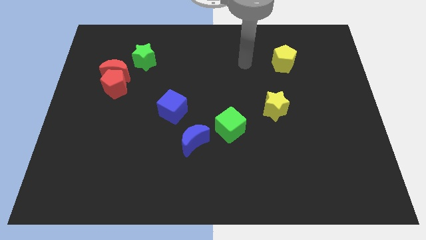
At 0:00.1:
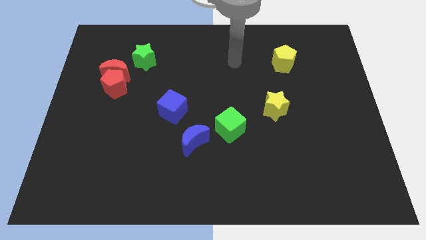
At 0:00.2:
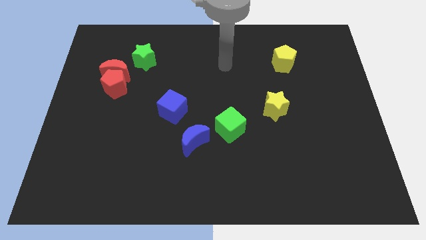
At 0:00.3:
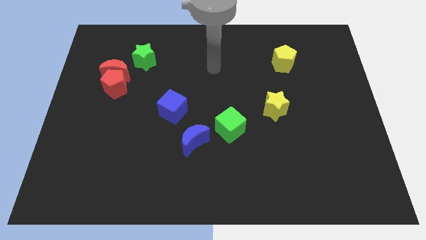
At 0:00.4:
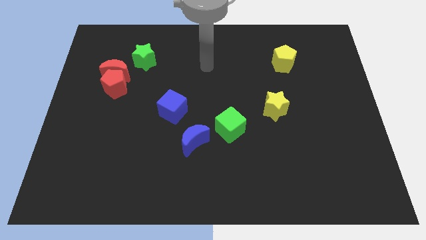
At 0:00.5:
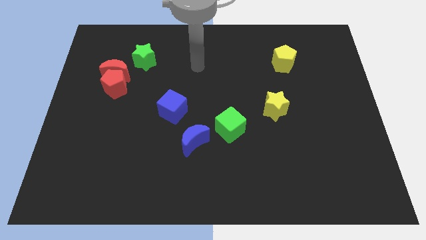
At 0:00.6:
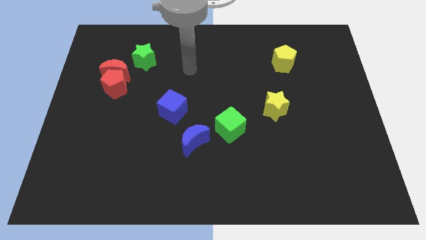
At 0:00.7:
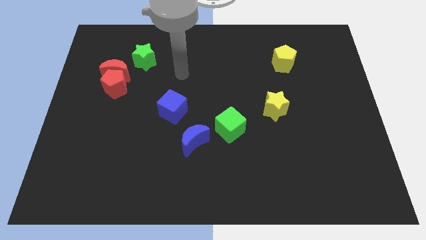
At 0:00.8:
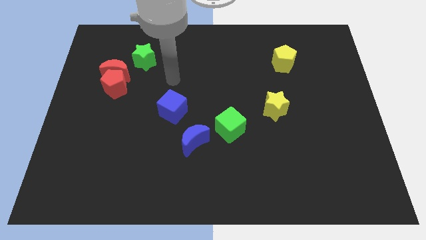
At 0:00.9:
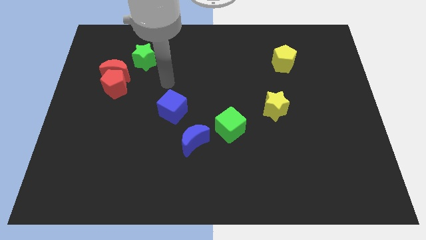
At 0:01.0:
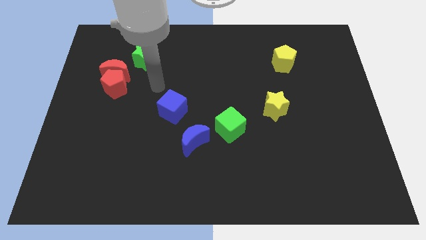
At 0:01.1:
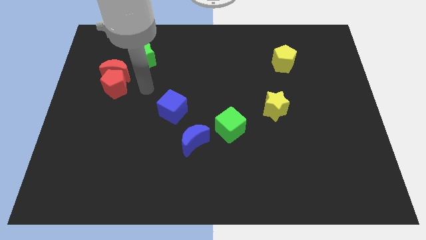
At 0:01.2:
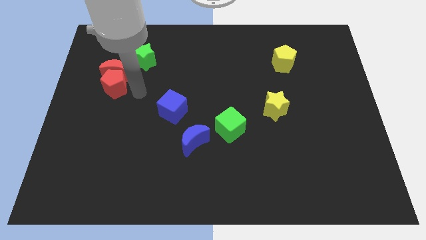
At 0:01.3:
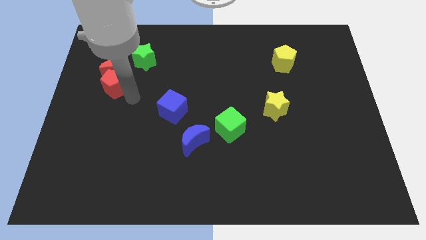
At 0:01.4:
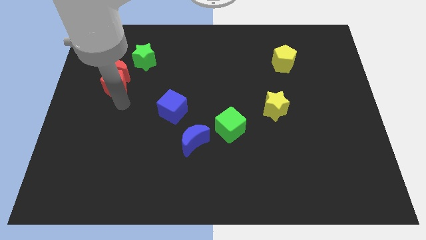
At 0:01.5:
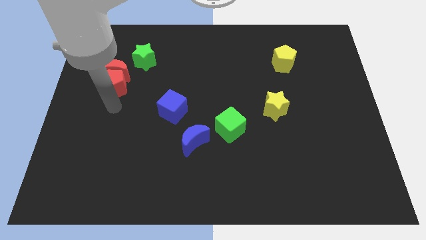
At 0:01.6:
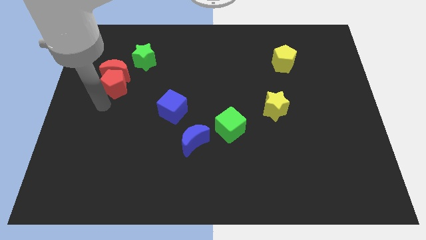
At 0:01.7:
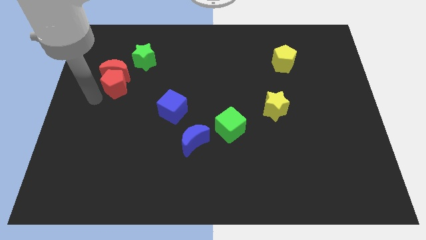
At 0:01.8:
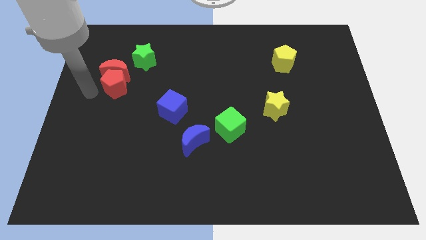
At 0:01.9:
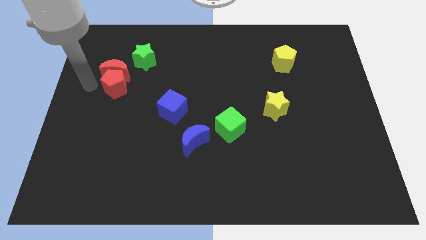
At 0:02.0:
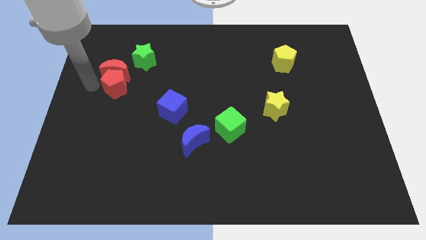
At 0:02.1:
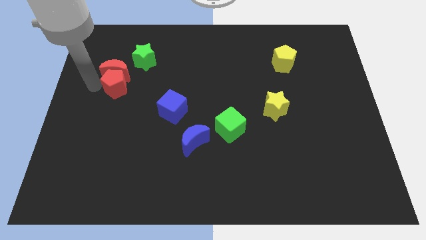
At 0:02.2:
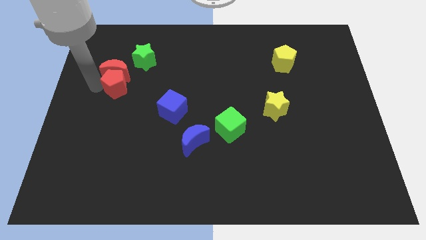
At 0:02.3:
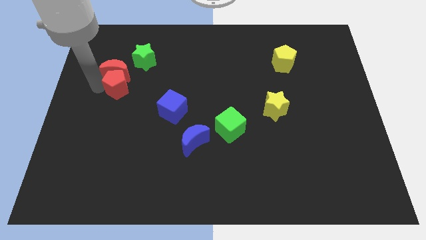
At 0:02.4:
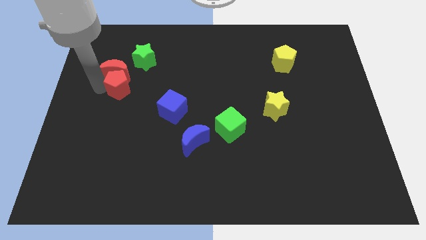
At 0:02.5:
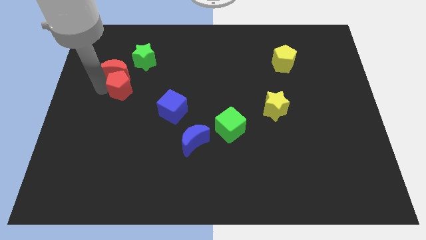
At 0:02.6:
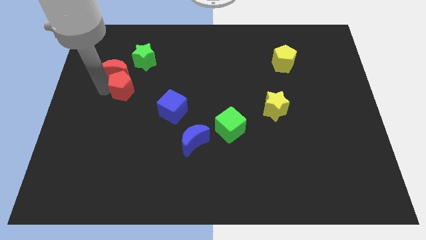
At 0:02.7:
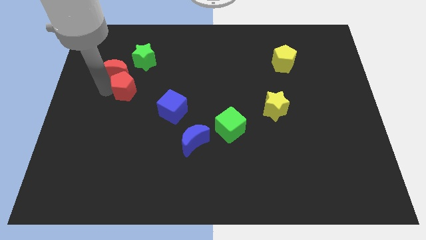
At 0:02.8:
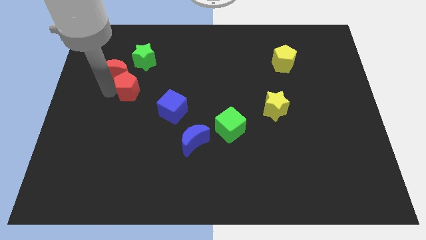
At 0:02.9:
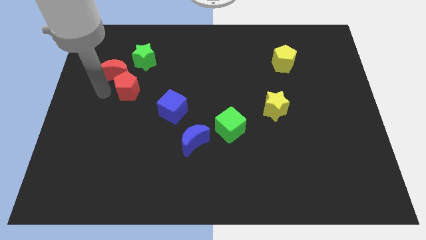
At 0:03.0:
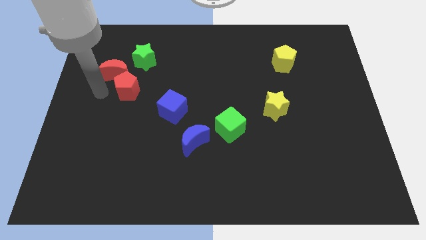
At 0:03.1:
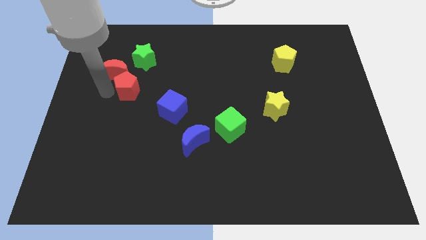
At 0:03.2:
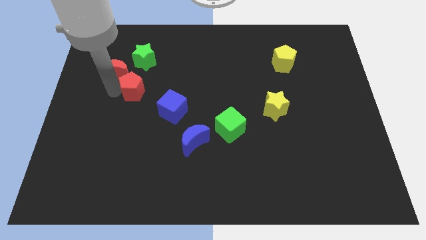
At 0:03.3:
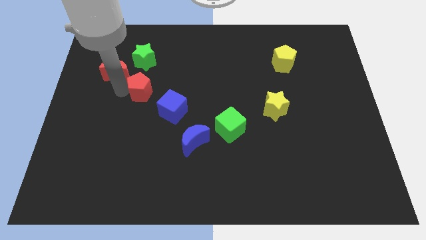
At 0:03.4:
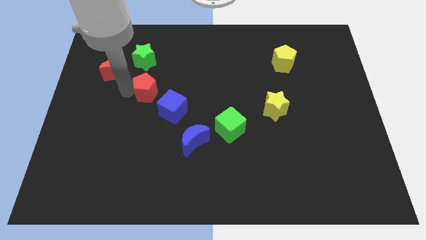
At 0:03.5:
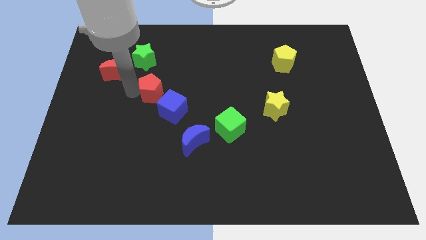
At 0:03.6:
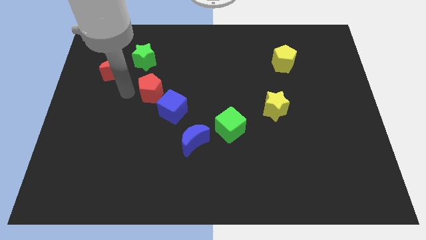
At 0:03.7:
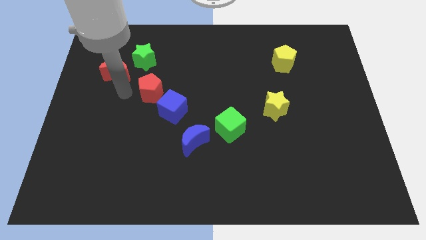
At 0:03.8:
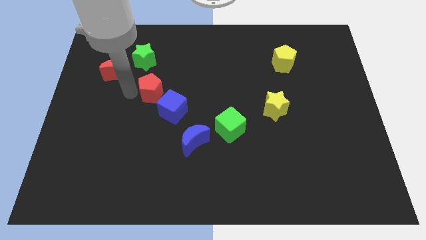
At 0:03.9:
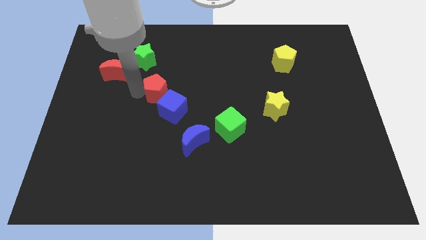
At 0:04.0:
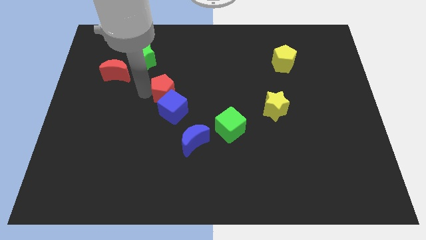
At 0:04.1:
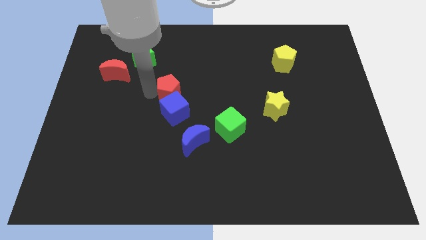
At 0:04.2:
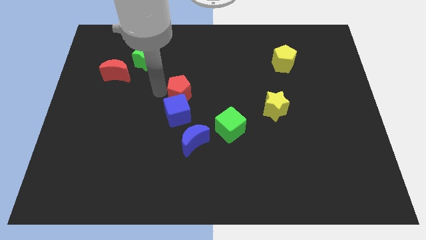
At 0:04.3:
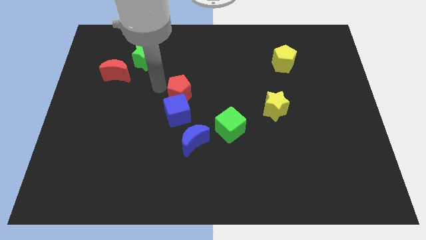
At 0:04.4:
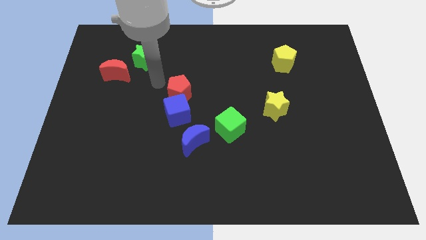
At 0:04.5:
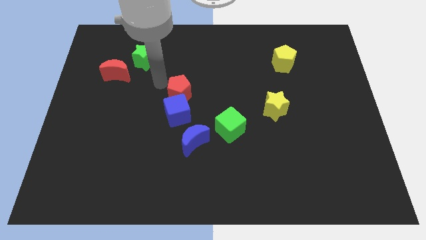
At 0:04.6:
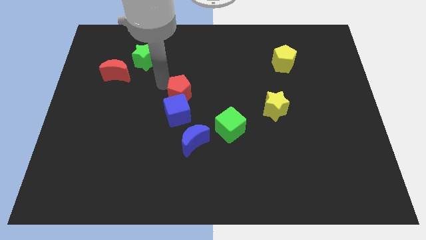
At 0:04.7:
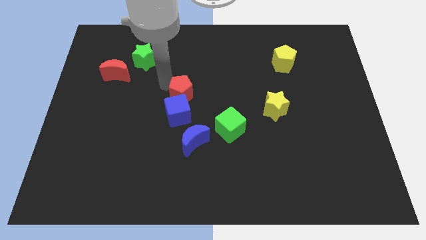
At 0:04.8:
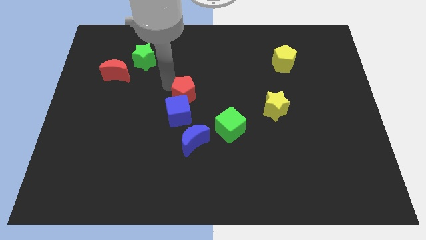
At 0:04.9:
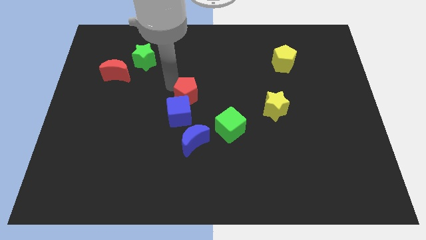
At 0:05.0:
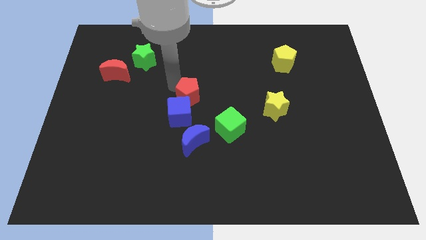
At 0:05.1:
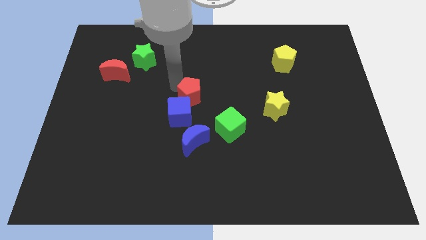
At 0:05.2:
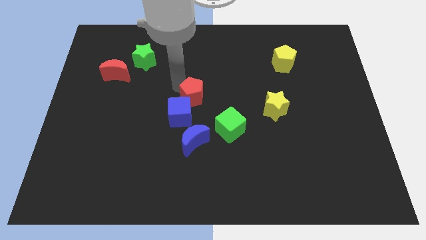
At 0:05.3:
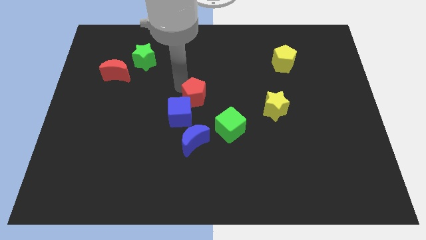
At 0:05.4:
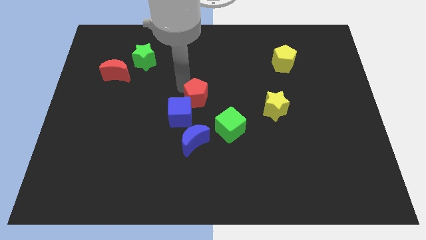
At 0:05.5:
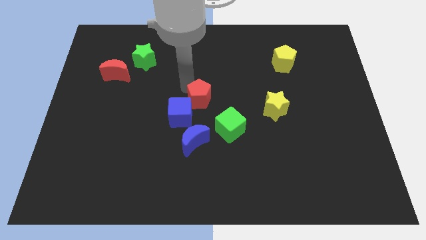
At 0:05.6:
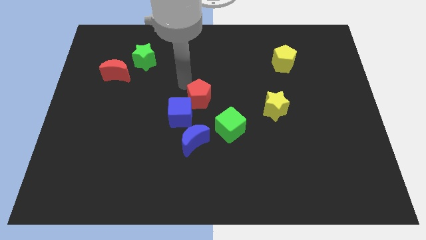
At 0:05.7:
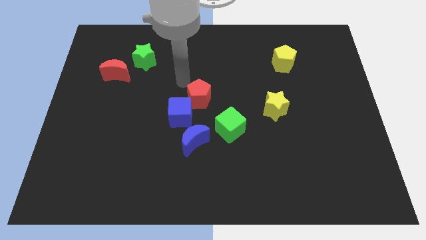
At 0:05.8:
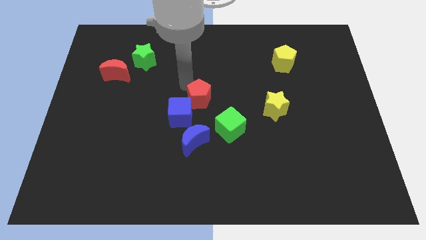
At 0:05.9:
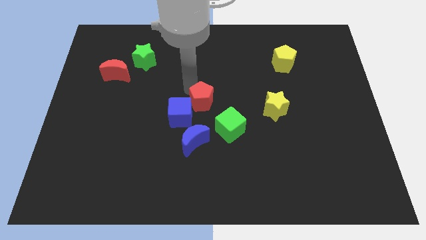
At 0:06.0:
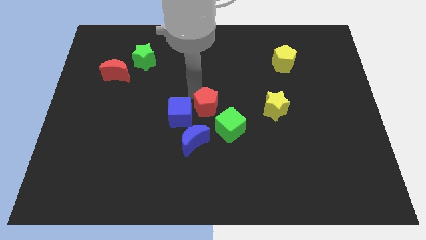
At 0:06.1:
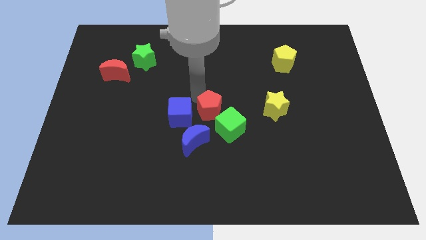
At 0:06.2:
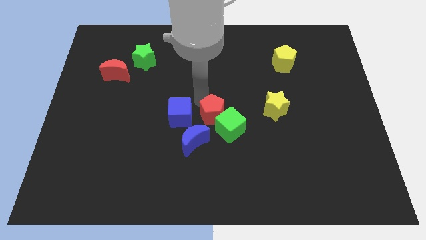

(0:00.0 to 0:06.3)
slide the red pentagon to the green cube

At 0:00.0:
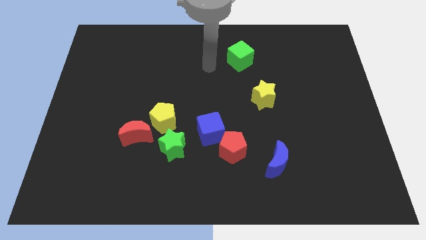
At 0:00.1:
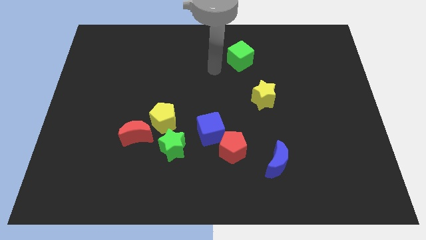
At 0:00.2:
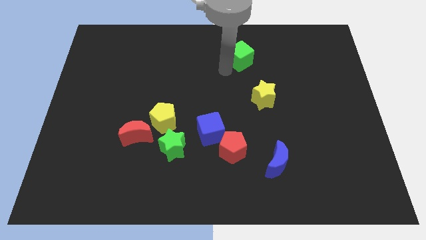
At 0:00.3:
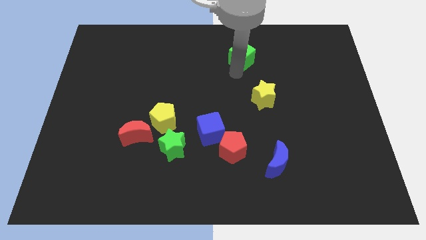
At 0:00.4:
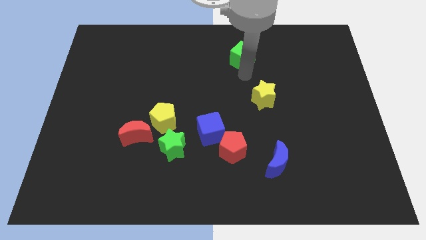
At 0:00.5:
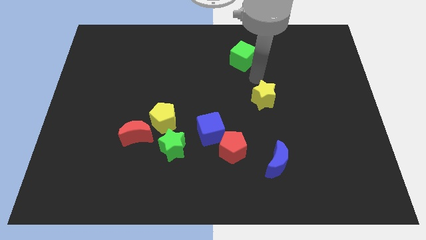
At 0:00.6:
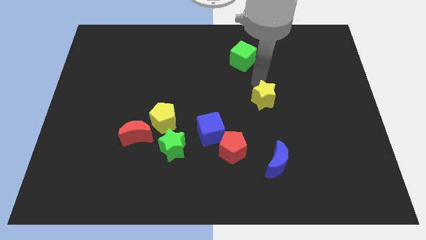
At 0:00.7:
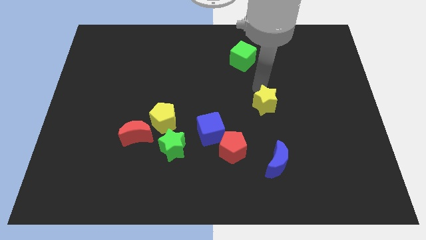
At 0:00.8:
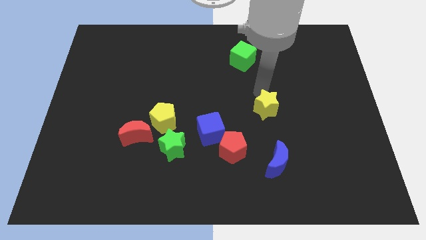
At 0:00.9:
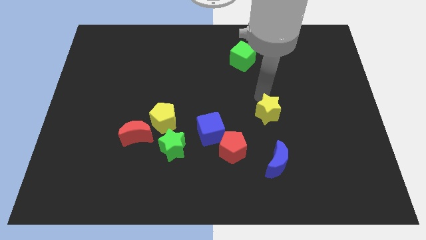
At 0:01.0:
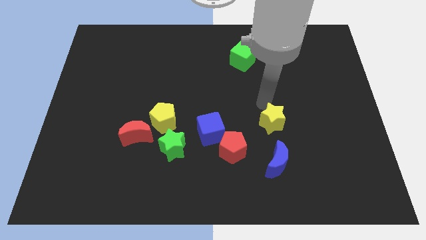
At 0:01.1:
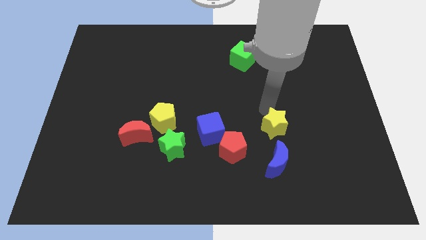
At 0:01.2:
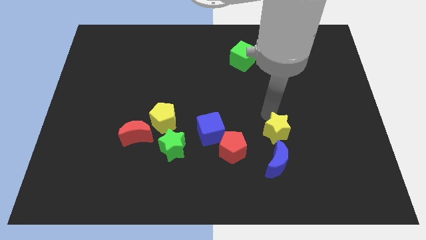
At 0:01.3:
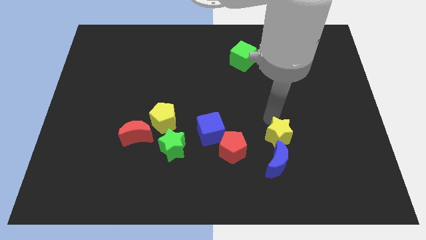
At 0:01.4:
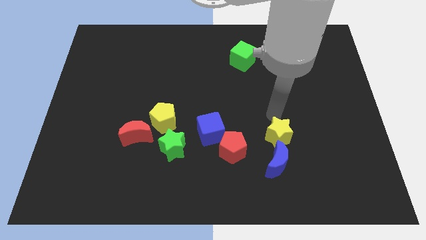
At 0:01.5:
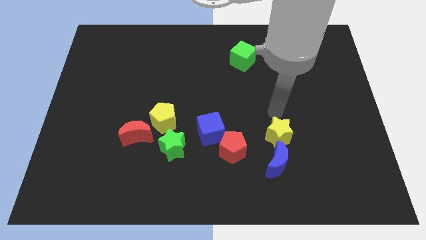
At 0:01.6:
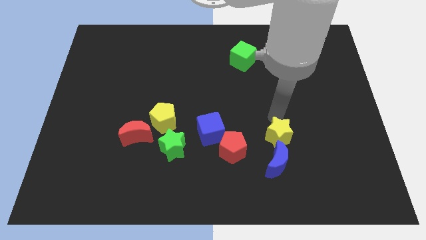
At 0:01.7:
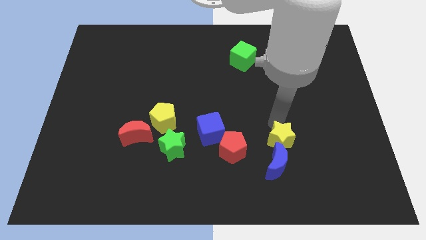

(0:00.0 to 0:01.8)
slide the yellow star close to the blue moon
